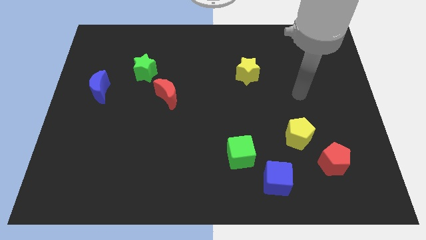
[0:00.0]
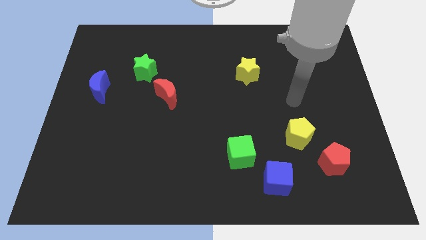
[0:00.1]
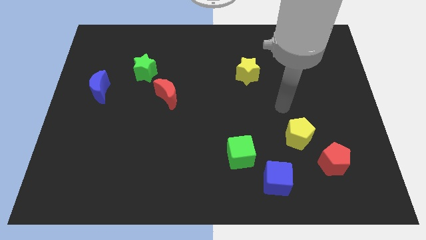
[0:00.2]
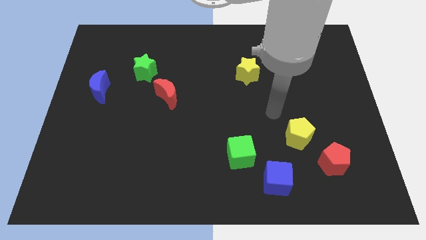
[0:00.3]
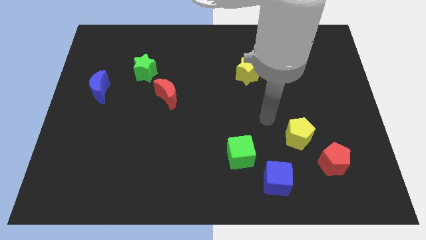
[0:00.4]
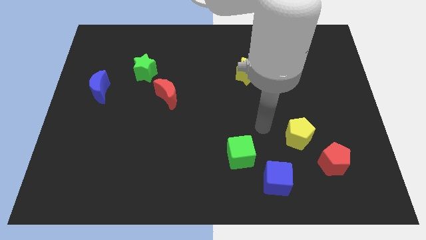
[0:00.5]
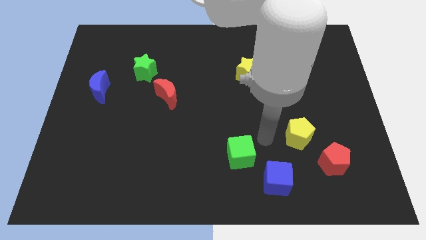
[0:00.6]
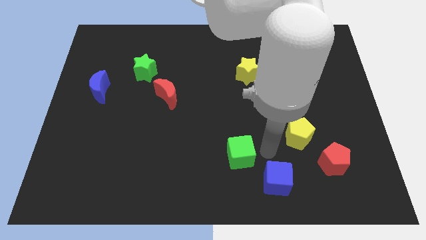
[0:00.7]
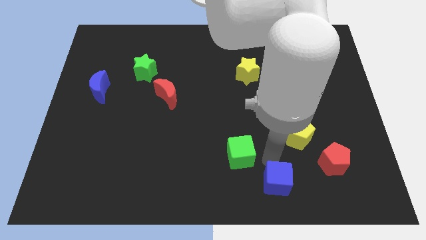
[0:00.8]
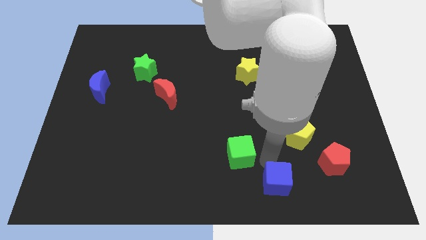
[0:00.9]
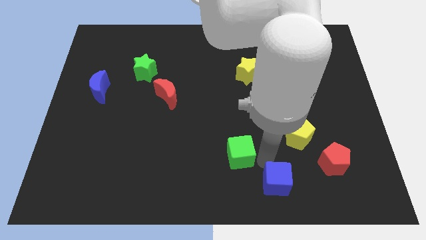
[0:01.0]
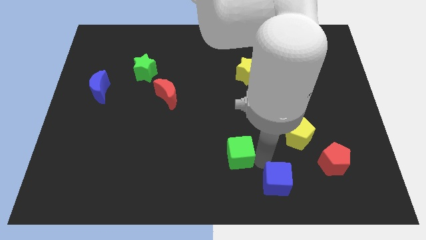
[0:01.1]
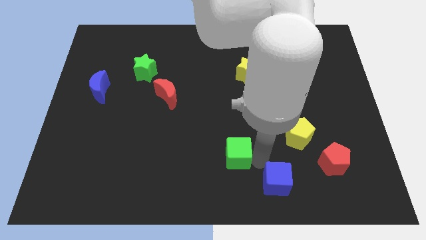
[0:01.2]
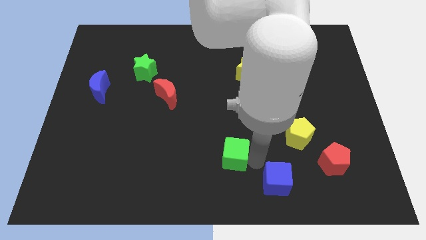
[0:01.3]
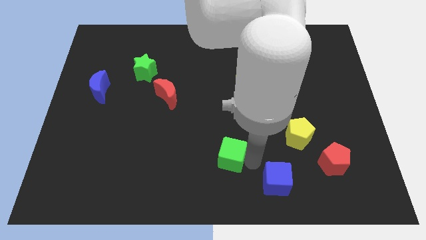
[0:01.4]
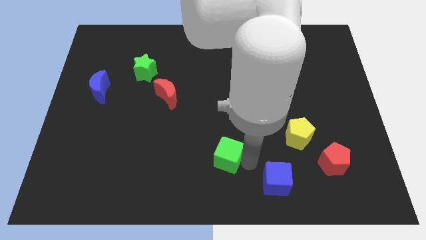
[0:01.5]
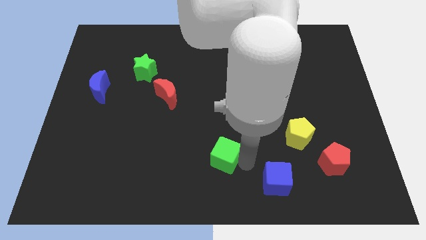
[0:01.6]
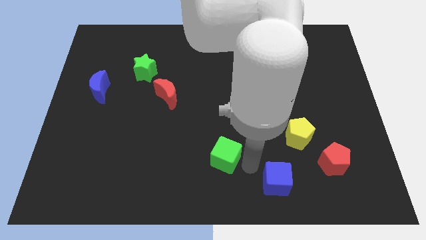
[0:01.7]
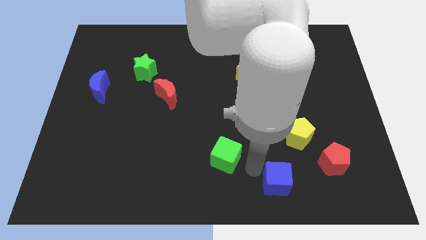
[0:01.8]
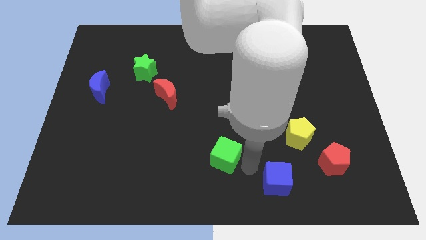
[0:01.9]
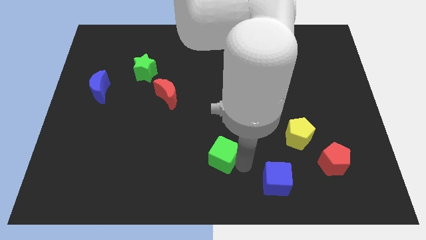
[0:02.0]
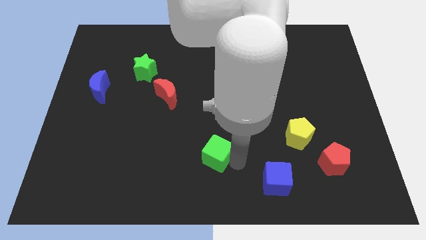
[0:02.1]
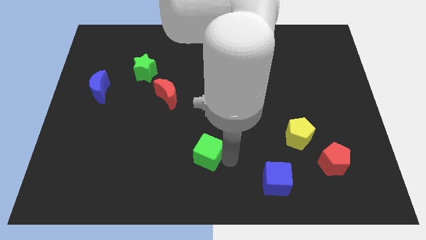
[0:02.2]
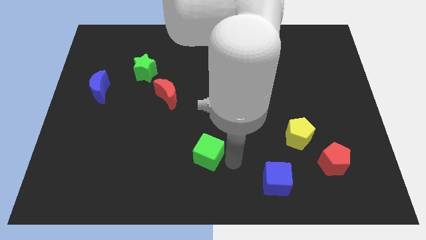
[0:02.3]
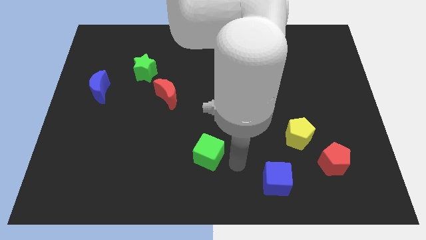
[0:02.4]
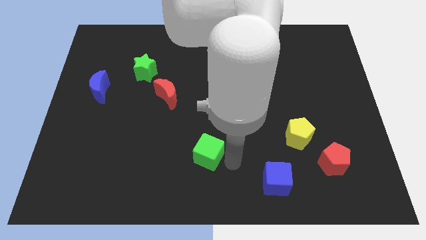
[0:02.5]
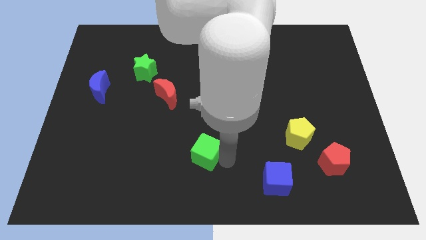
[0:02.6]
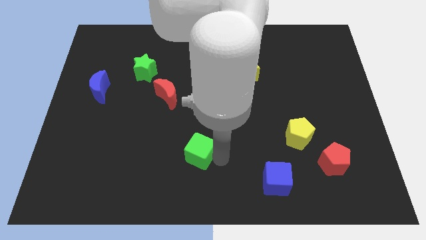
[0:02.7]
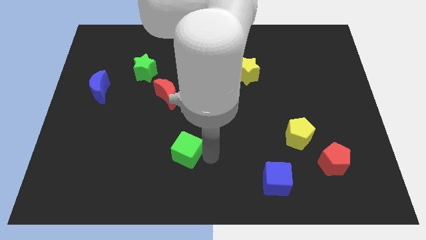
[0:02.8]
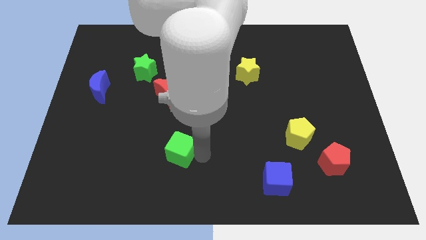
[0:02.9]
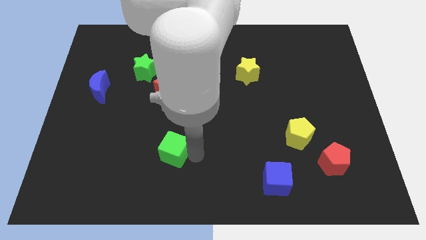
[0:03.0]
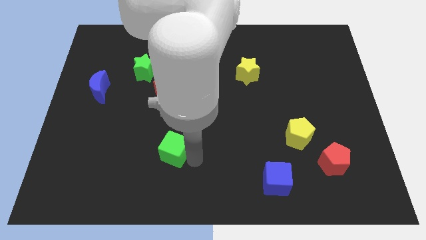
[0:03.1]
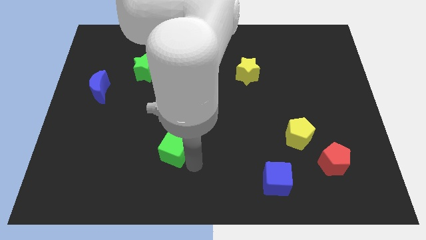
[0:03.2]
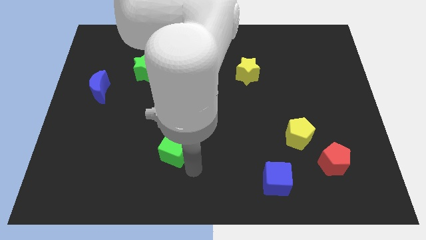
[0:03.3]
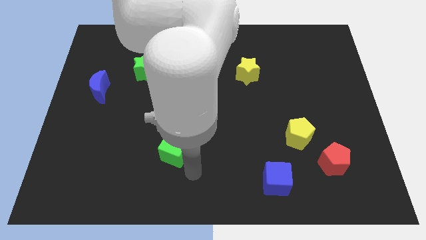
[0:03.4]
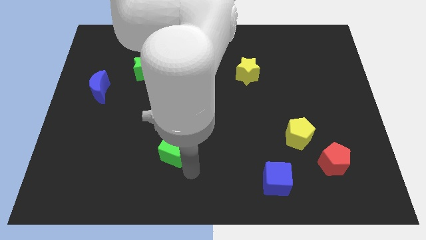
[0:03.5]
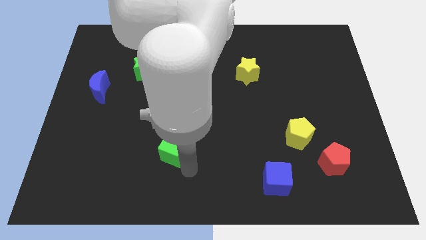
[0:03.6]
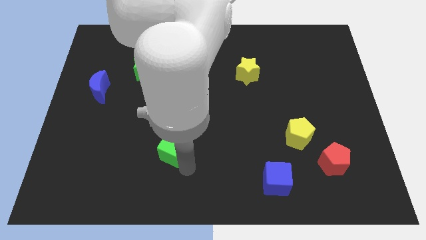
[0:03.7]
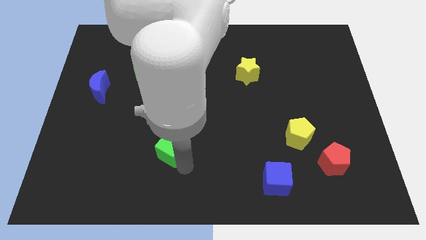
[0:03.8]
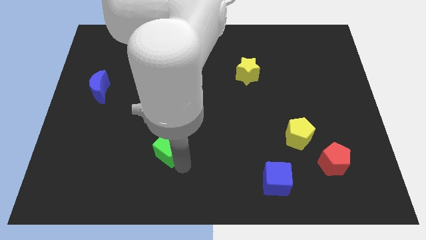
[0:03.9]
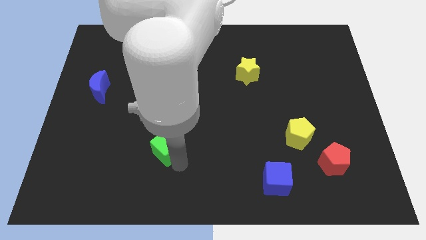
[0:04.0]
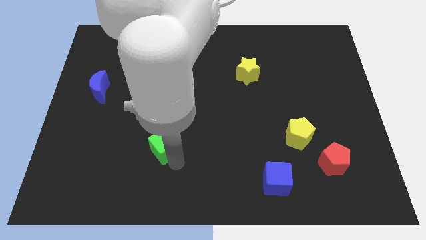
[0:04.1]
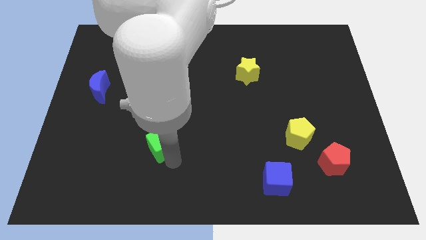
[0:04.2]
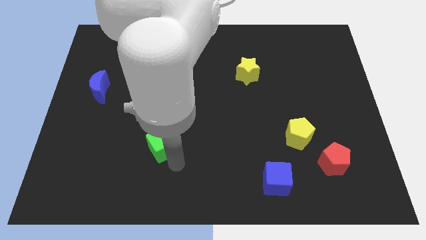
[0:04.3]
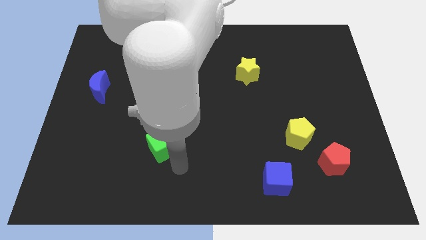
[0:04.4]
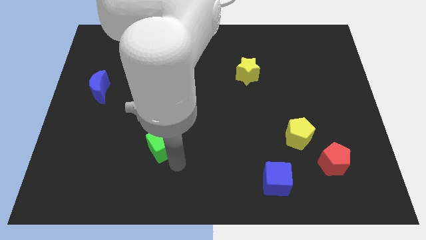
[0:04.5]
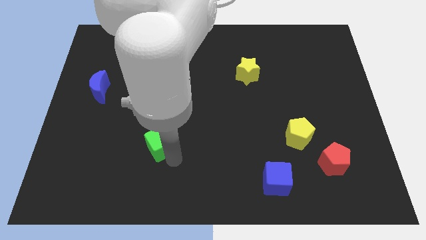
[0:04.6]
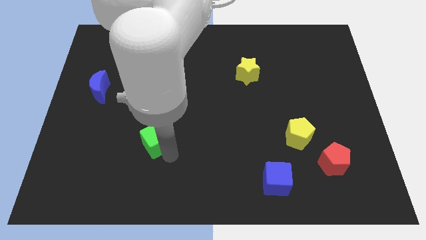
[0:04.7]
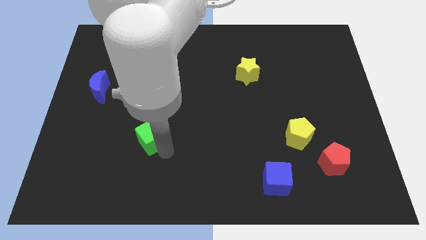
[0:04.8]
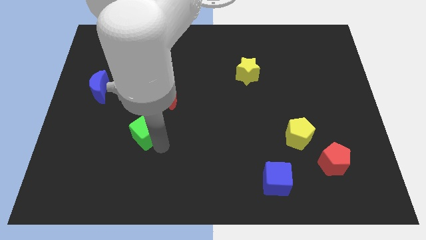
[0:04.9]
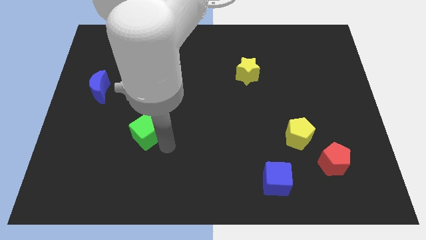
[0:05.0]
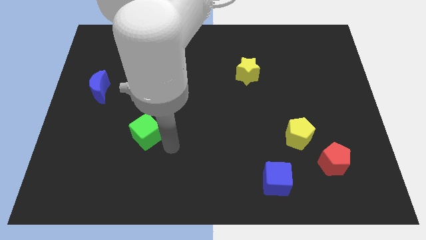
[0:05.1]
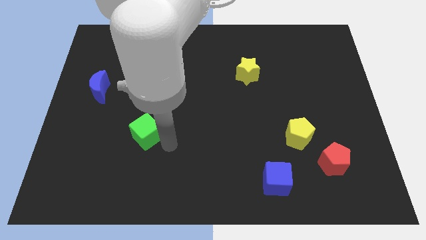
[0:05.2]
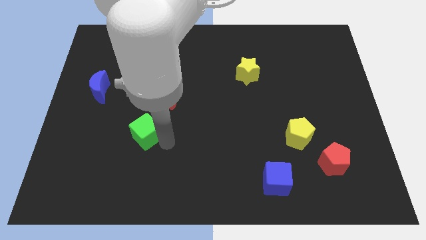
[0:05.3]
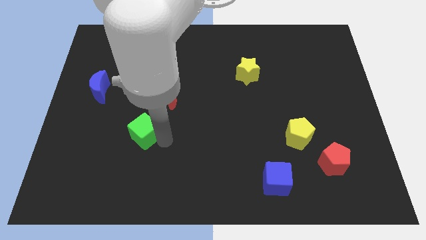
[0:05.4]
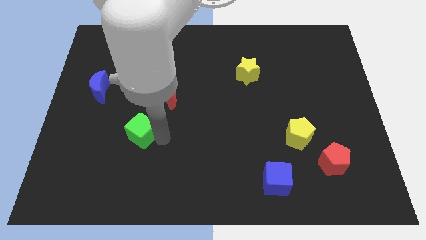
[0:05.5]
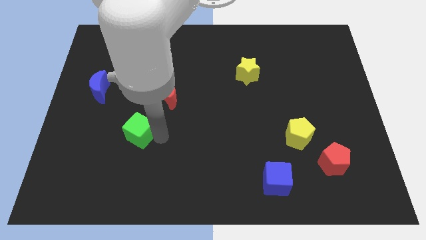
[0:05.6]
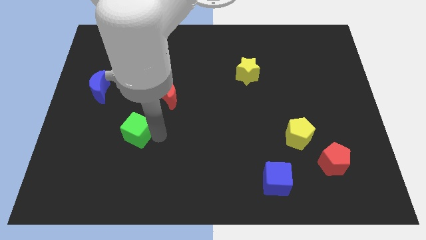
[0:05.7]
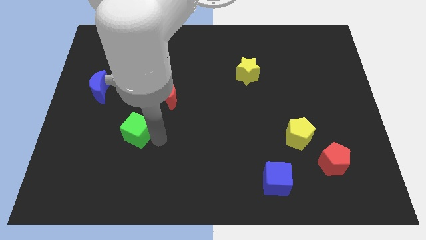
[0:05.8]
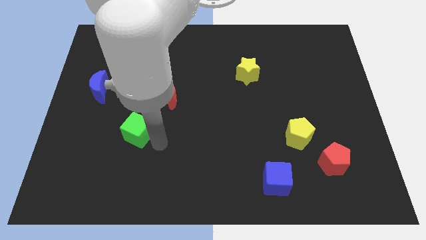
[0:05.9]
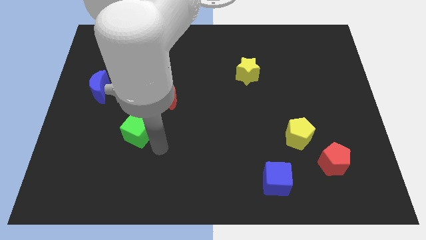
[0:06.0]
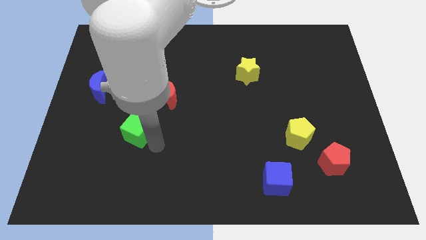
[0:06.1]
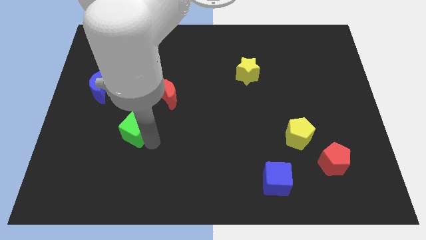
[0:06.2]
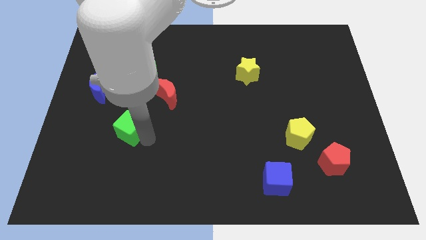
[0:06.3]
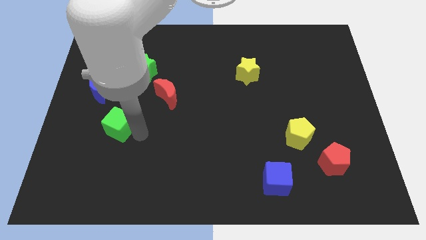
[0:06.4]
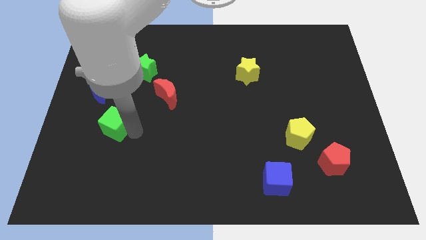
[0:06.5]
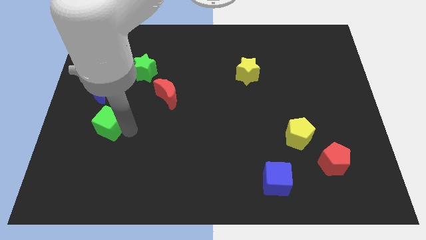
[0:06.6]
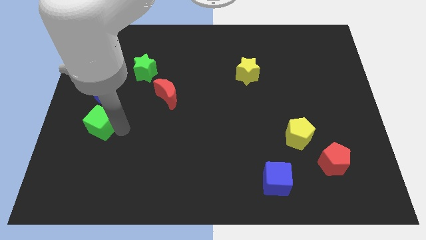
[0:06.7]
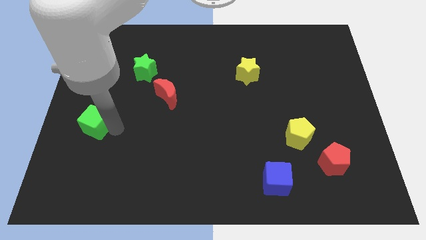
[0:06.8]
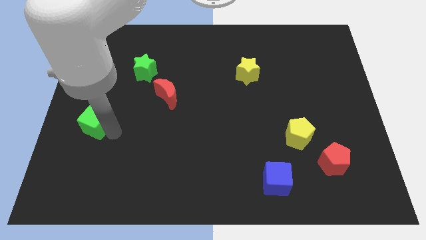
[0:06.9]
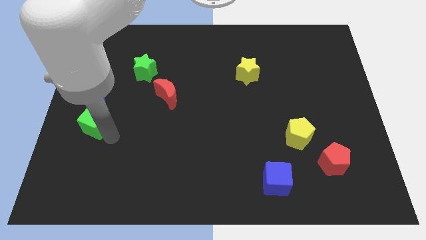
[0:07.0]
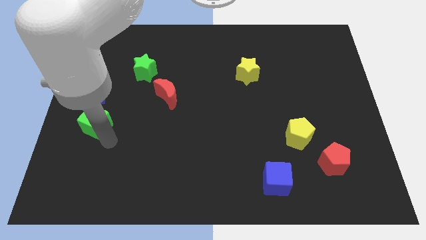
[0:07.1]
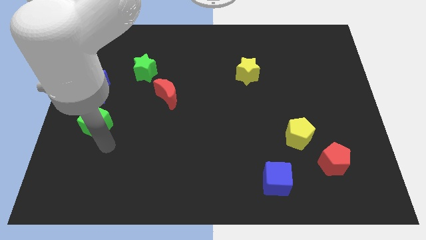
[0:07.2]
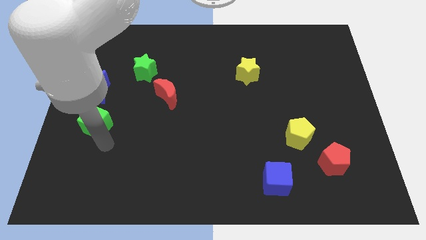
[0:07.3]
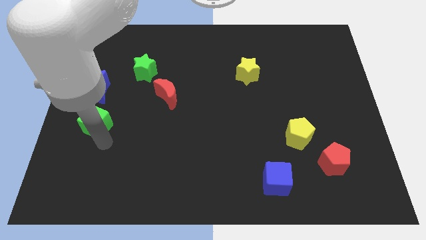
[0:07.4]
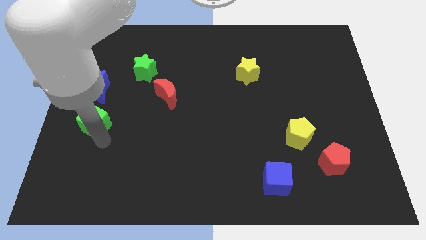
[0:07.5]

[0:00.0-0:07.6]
move the green cube to the center left
